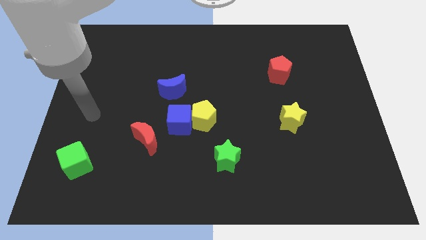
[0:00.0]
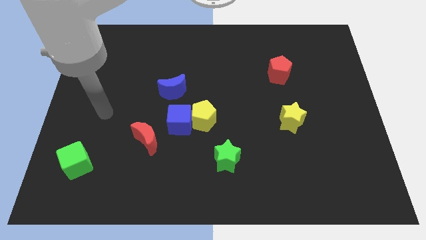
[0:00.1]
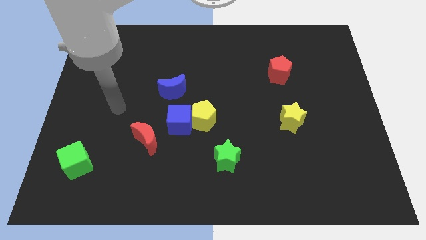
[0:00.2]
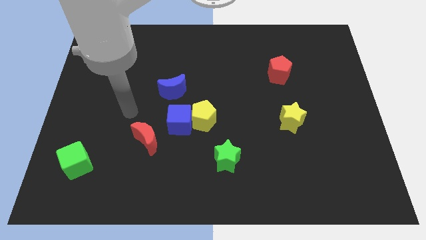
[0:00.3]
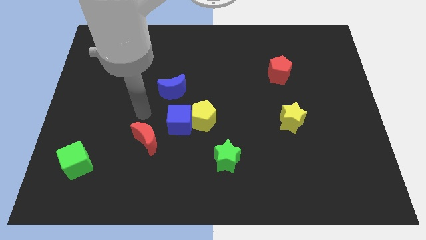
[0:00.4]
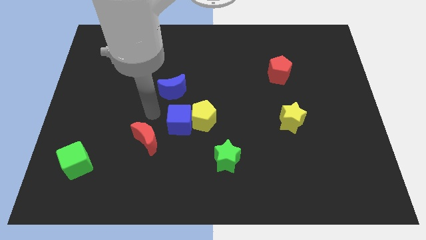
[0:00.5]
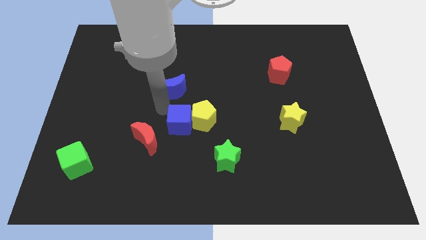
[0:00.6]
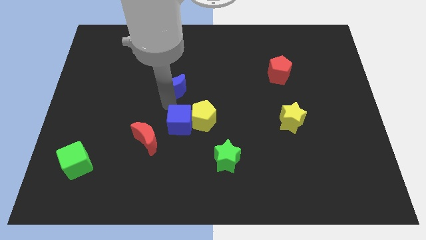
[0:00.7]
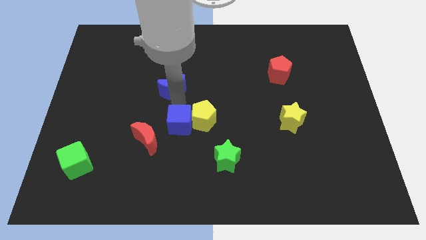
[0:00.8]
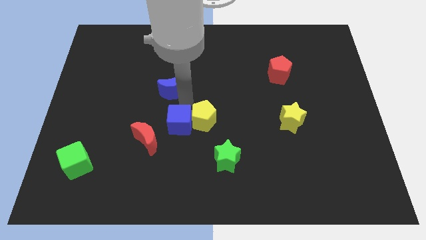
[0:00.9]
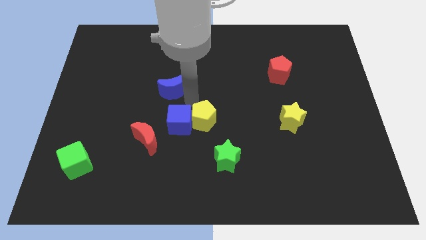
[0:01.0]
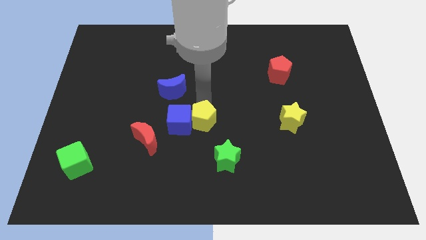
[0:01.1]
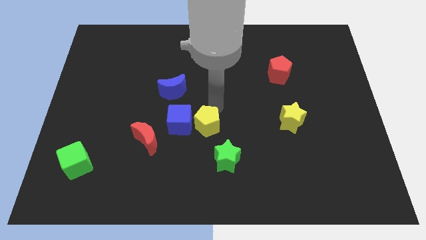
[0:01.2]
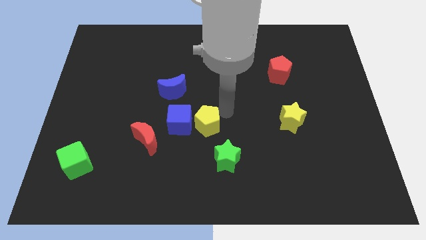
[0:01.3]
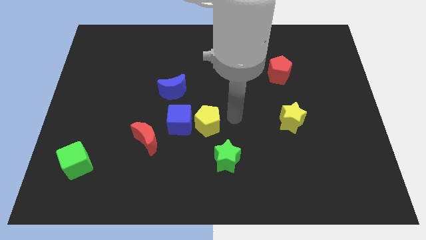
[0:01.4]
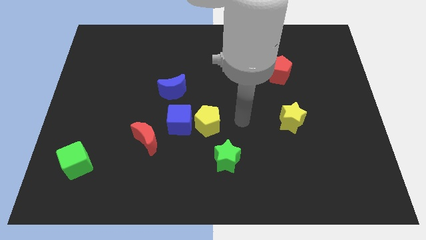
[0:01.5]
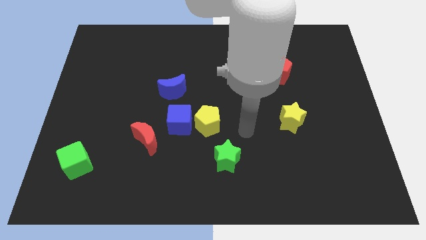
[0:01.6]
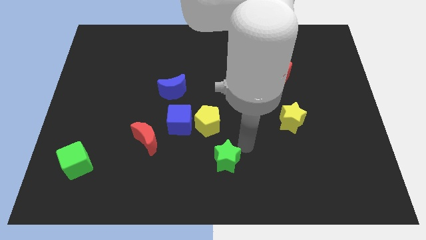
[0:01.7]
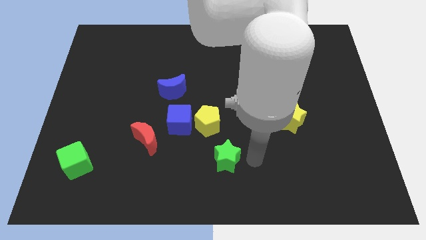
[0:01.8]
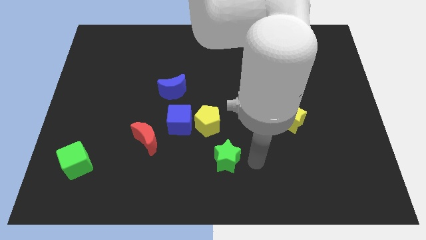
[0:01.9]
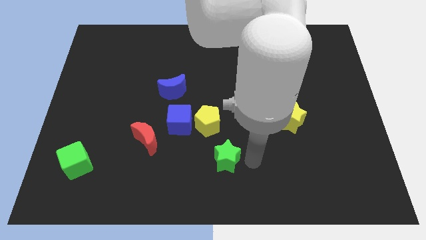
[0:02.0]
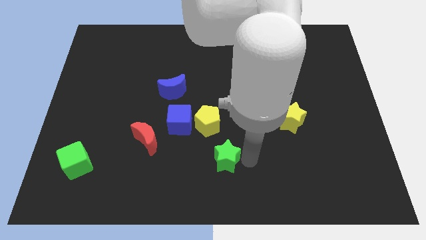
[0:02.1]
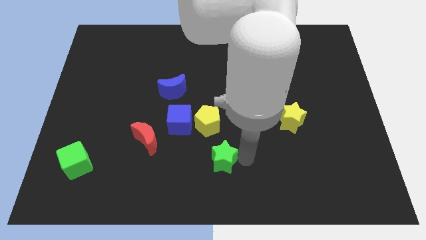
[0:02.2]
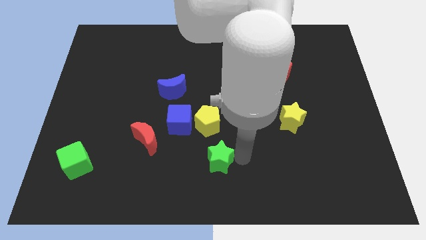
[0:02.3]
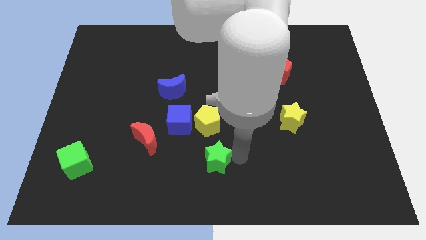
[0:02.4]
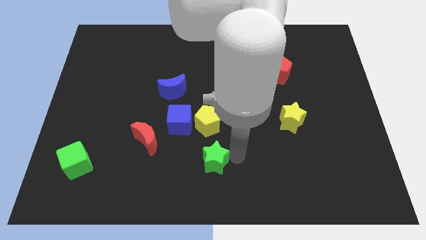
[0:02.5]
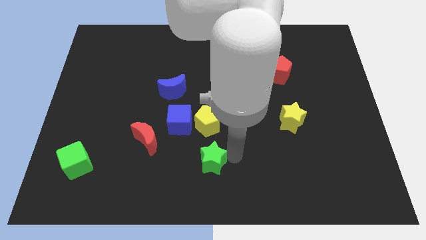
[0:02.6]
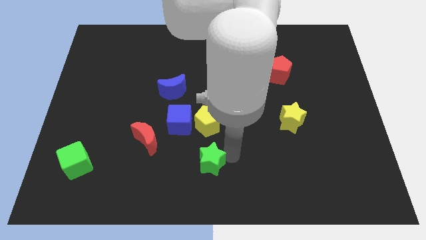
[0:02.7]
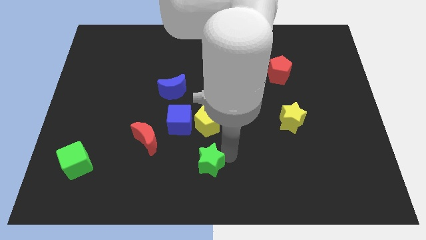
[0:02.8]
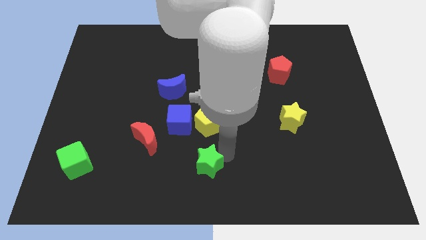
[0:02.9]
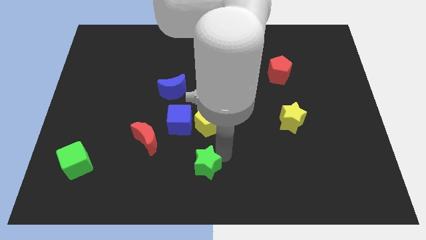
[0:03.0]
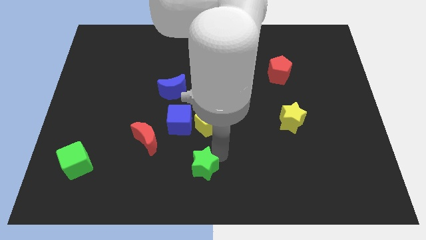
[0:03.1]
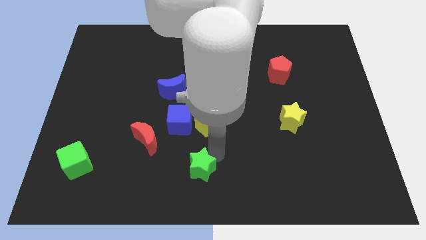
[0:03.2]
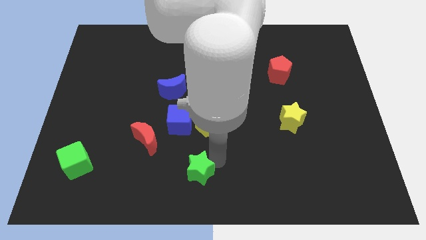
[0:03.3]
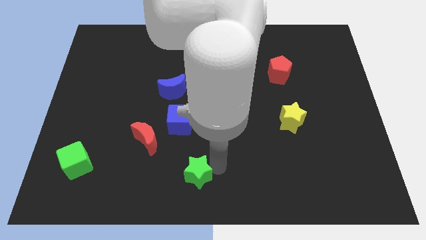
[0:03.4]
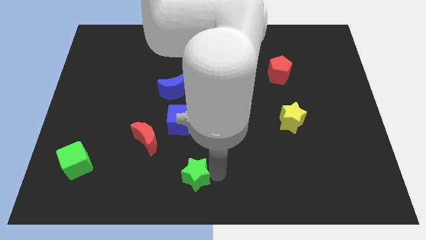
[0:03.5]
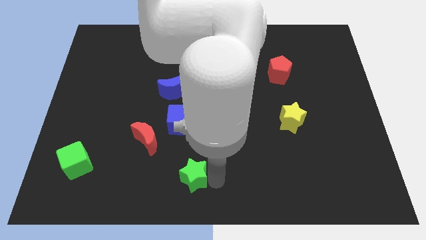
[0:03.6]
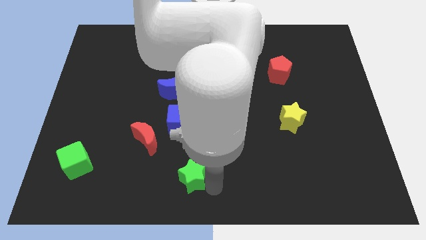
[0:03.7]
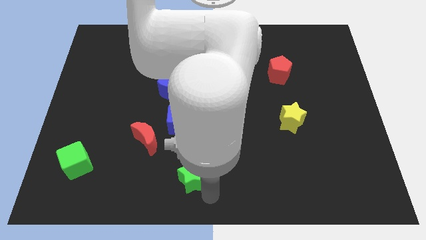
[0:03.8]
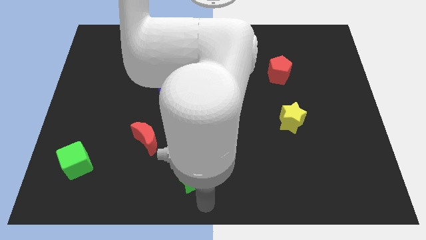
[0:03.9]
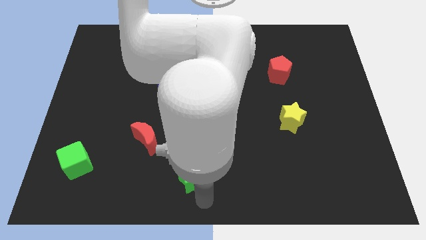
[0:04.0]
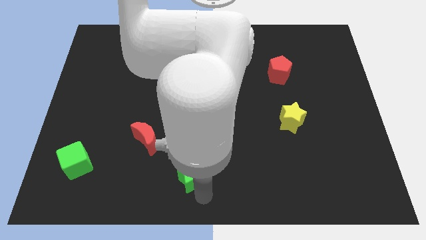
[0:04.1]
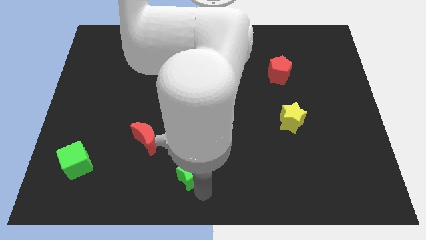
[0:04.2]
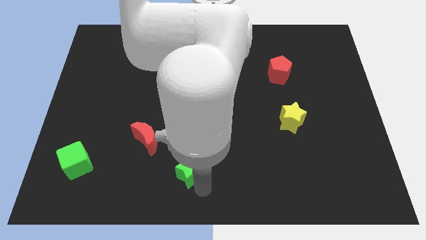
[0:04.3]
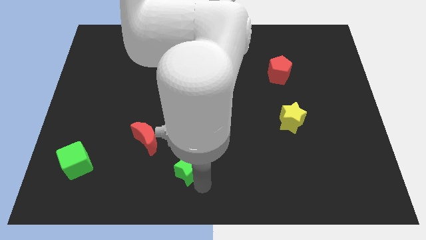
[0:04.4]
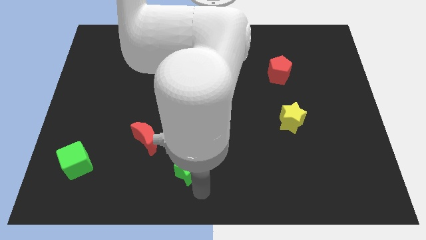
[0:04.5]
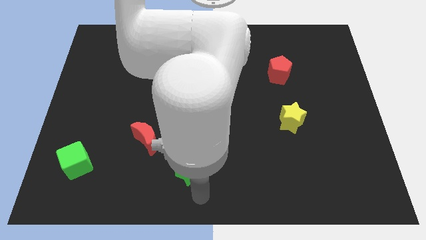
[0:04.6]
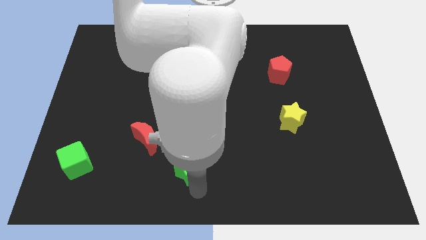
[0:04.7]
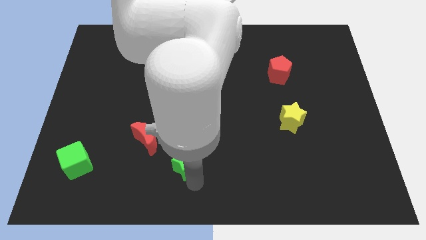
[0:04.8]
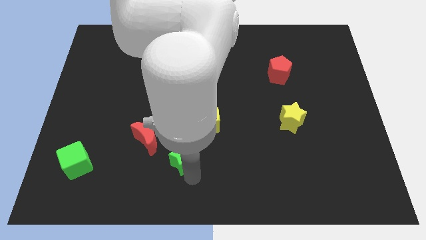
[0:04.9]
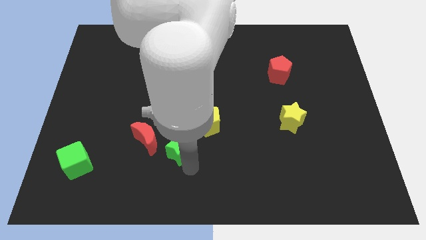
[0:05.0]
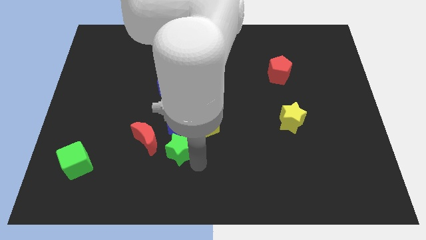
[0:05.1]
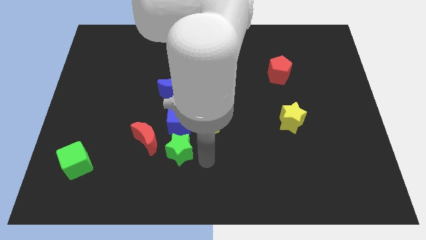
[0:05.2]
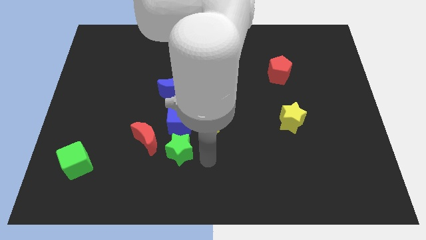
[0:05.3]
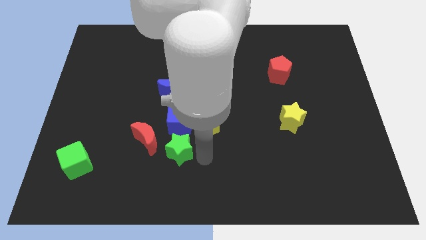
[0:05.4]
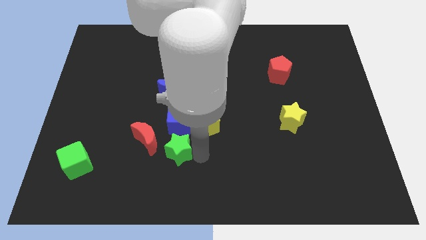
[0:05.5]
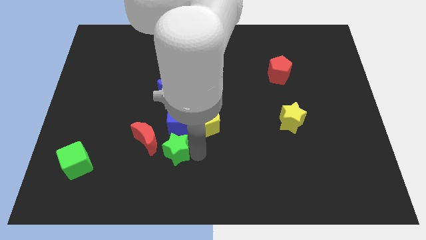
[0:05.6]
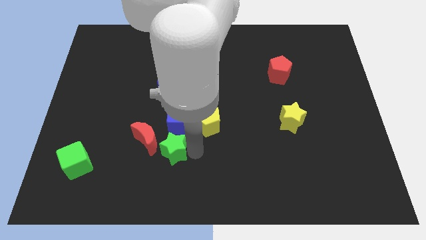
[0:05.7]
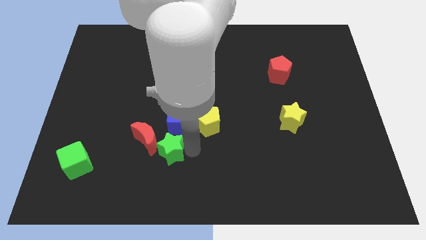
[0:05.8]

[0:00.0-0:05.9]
move the green star close to the red moon

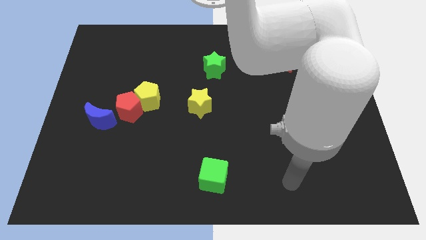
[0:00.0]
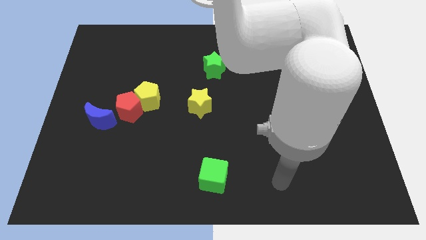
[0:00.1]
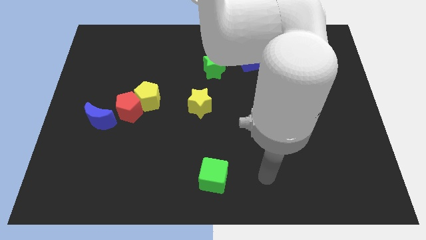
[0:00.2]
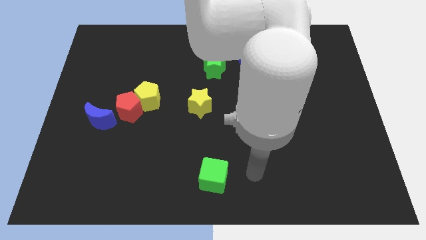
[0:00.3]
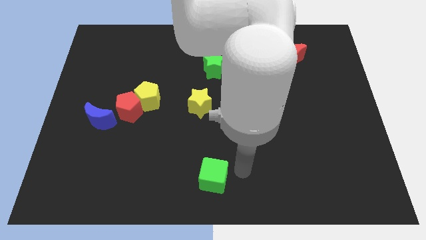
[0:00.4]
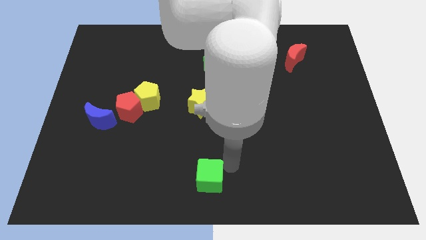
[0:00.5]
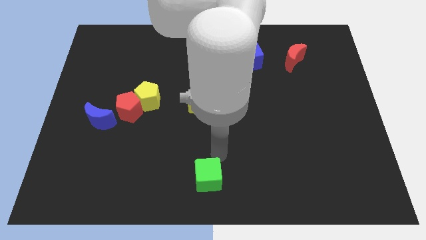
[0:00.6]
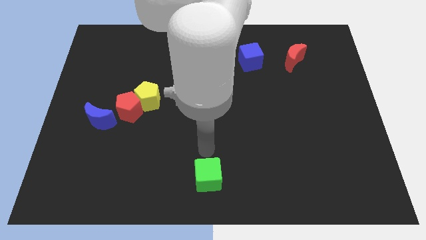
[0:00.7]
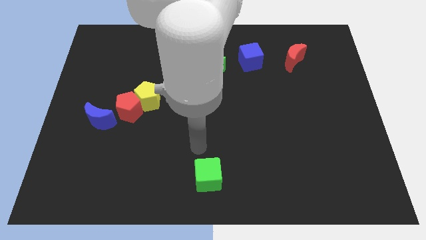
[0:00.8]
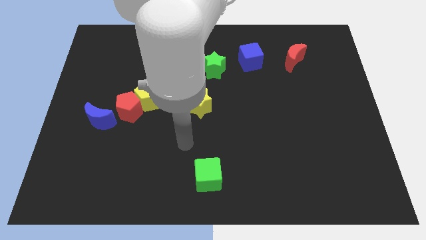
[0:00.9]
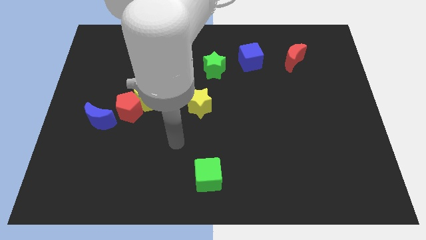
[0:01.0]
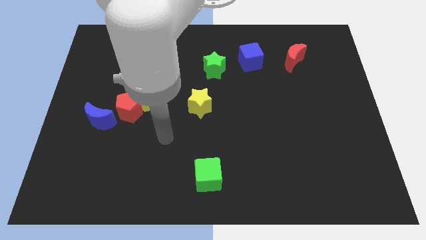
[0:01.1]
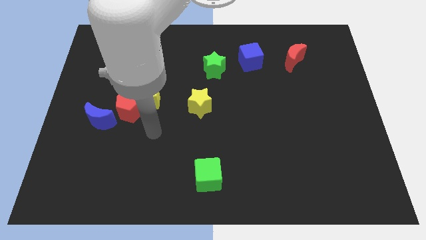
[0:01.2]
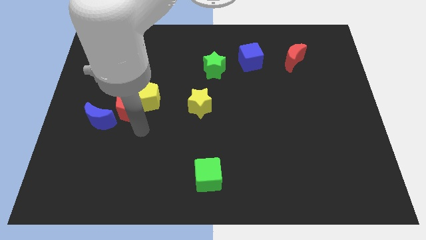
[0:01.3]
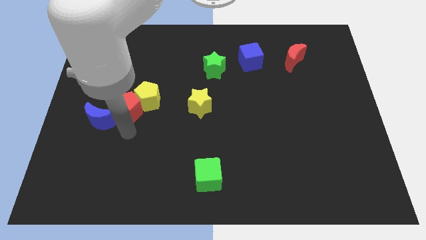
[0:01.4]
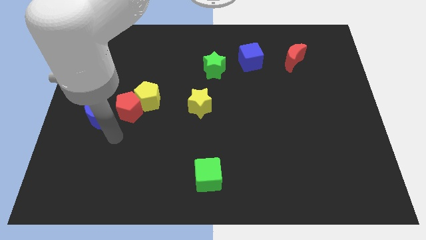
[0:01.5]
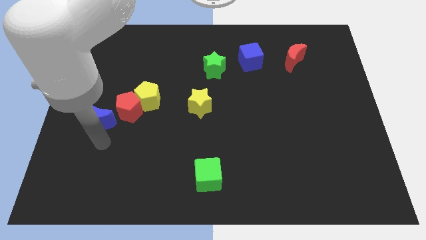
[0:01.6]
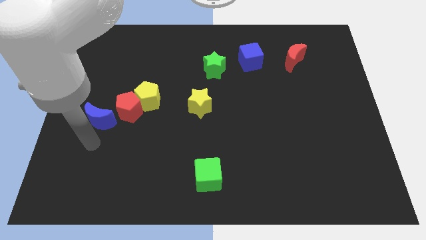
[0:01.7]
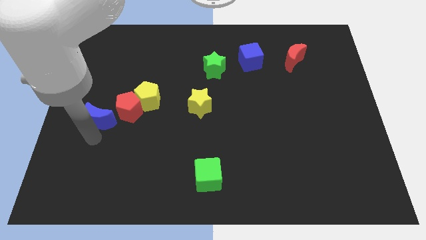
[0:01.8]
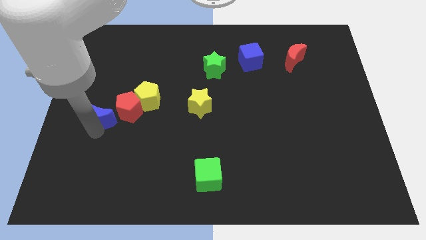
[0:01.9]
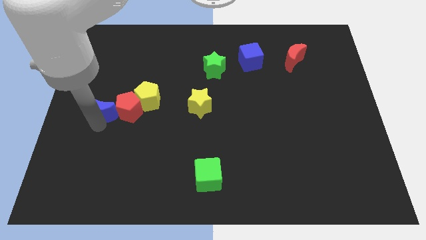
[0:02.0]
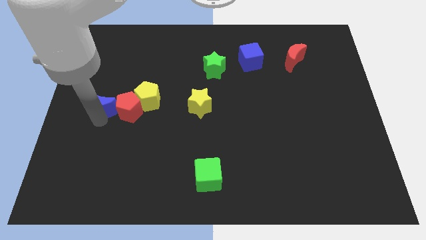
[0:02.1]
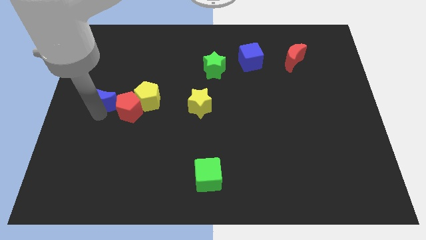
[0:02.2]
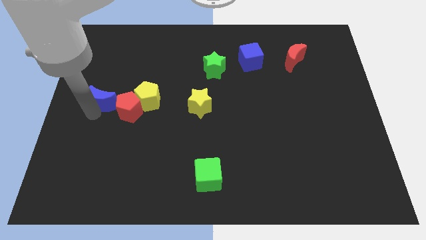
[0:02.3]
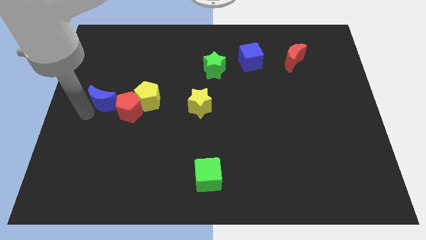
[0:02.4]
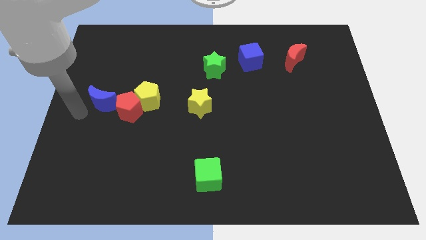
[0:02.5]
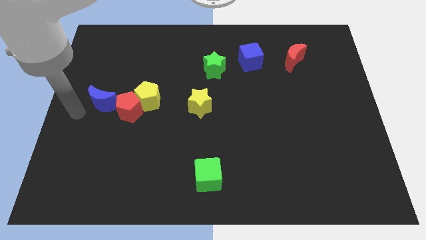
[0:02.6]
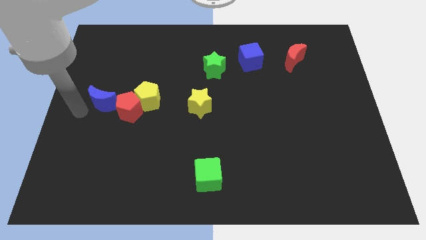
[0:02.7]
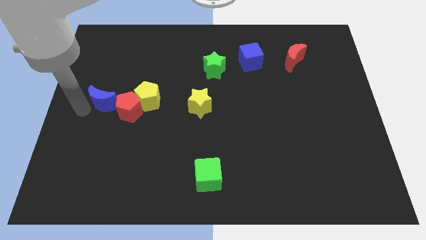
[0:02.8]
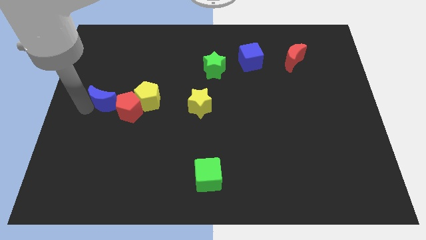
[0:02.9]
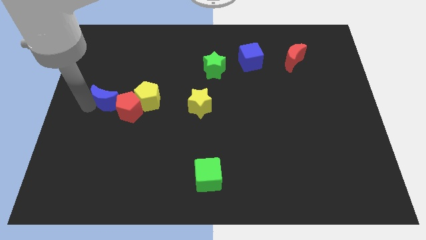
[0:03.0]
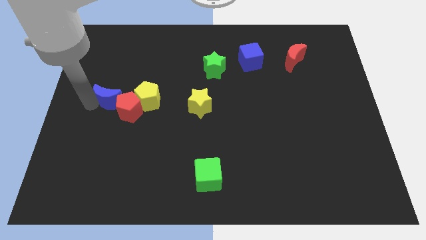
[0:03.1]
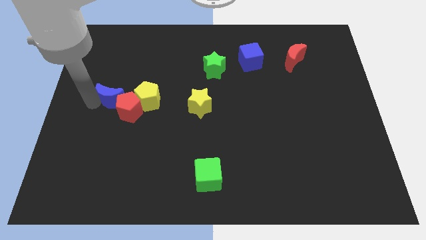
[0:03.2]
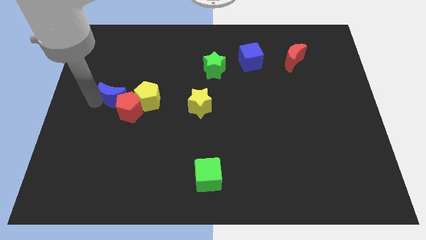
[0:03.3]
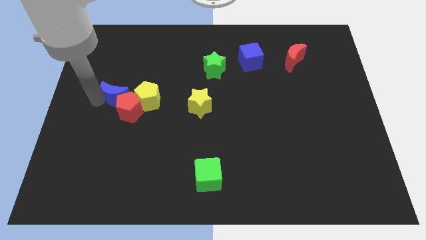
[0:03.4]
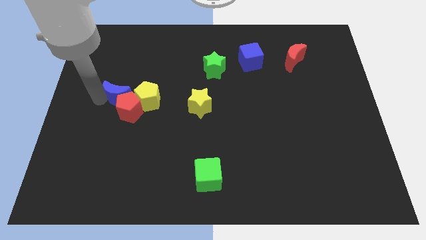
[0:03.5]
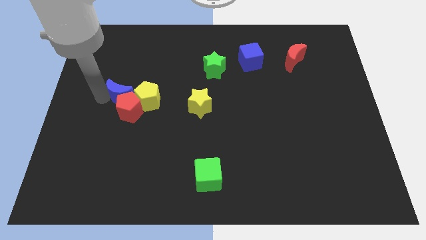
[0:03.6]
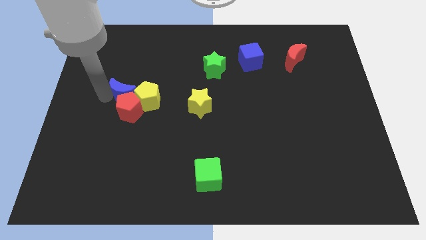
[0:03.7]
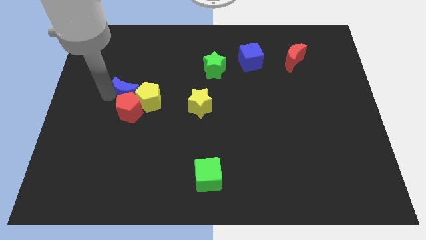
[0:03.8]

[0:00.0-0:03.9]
put the blue moon to the yellow pentagon
